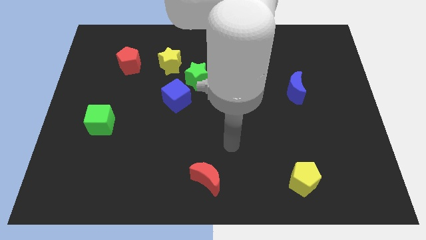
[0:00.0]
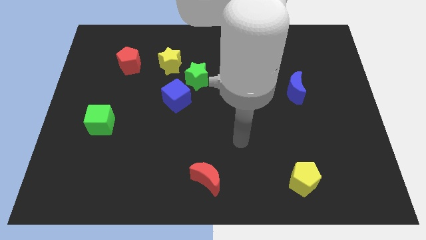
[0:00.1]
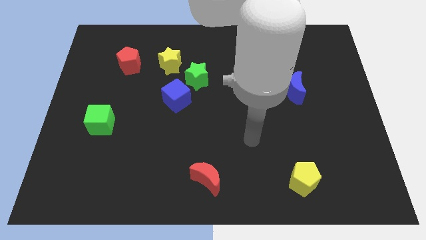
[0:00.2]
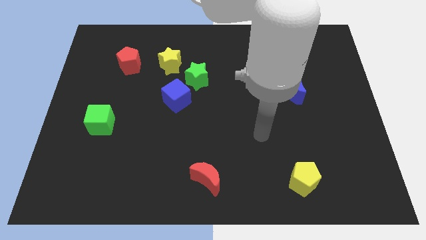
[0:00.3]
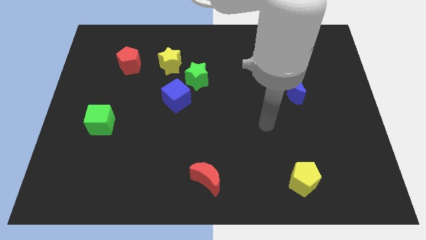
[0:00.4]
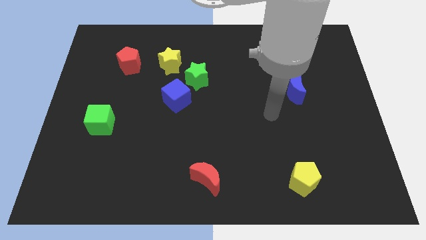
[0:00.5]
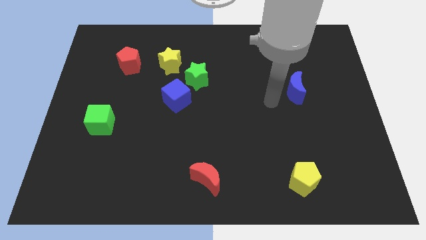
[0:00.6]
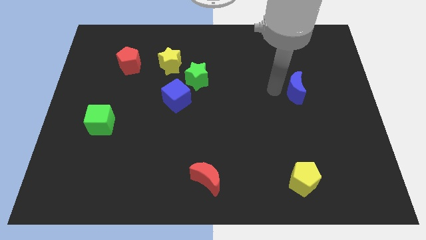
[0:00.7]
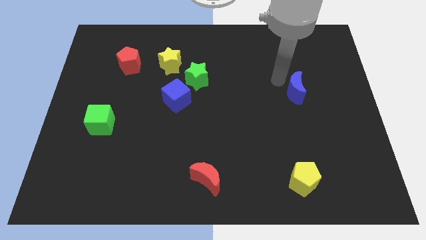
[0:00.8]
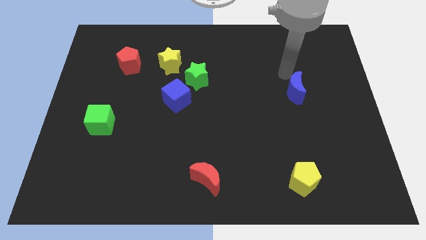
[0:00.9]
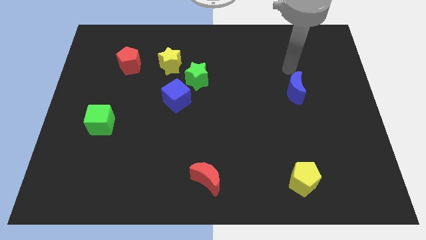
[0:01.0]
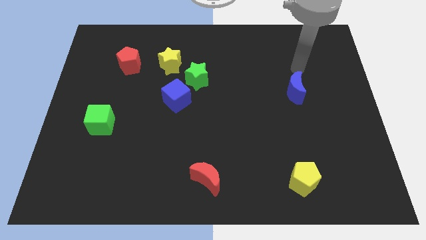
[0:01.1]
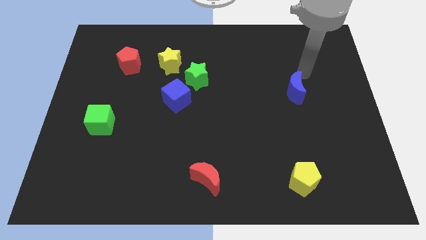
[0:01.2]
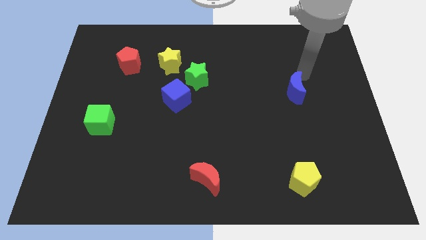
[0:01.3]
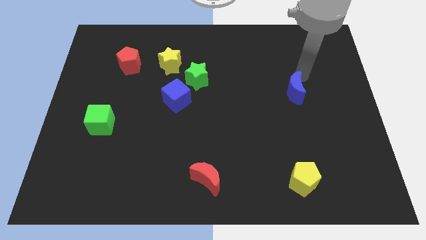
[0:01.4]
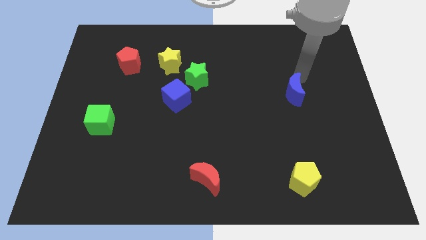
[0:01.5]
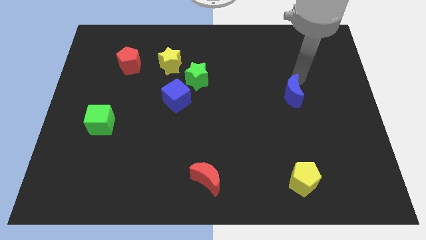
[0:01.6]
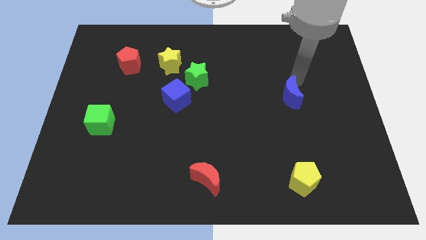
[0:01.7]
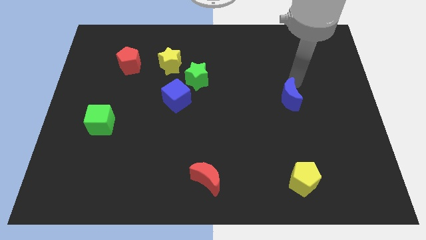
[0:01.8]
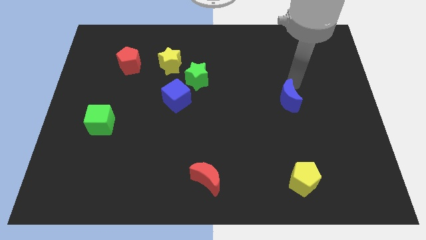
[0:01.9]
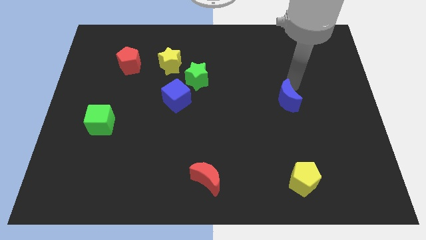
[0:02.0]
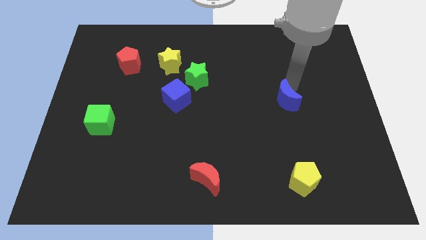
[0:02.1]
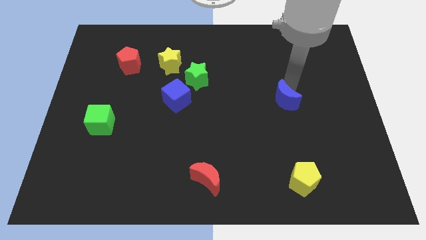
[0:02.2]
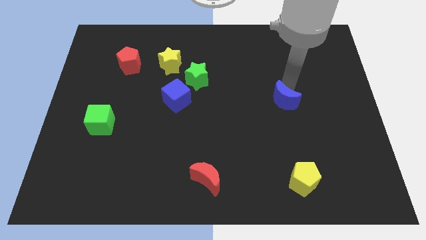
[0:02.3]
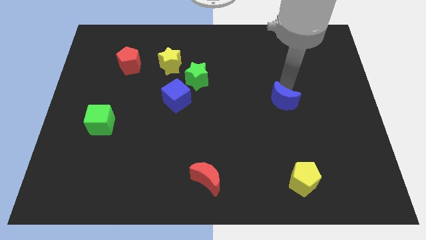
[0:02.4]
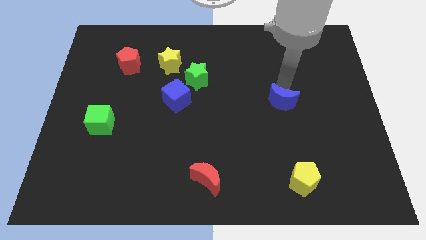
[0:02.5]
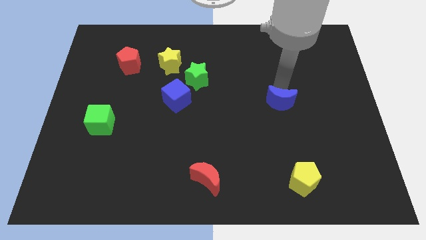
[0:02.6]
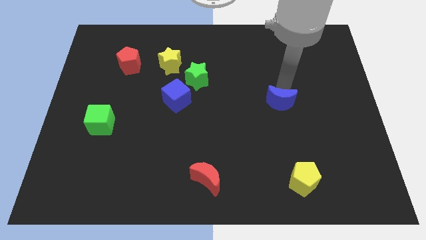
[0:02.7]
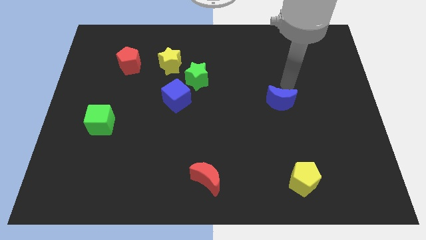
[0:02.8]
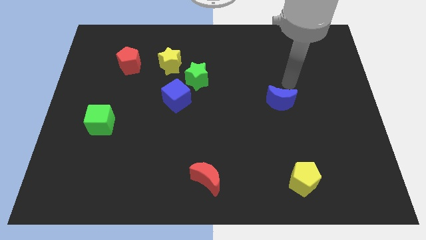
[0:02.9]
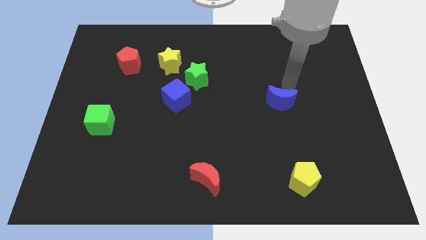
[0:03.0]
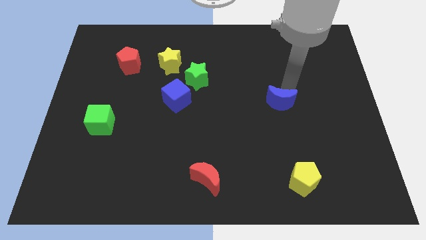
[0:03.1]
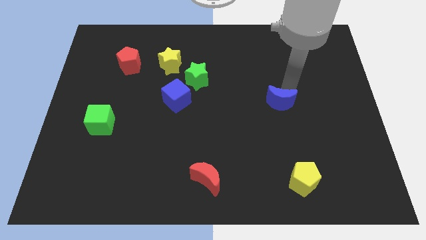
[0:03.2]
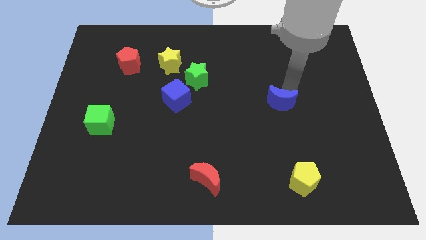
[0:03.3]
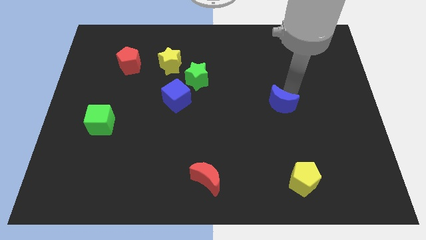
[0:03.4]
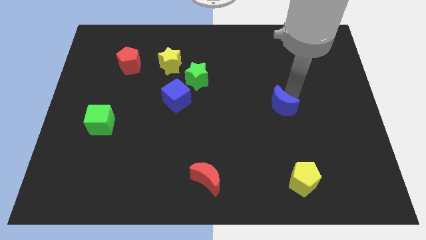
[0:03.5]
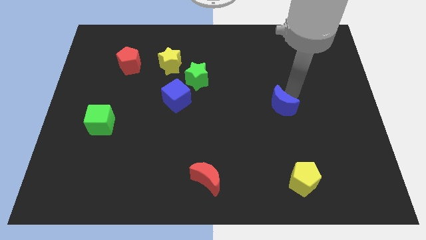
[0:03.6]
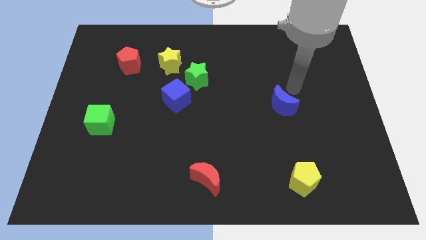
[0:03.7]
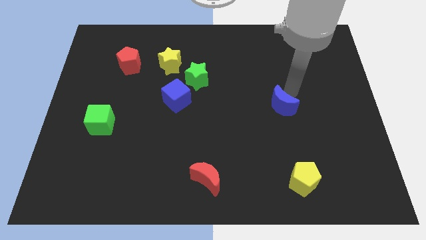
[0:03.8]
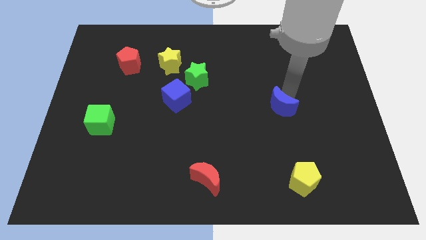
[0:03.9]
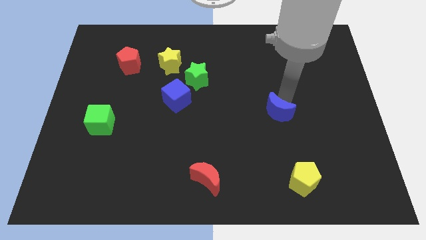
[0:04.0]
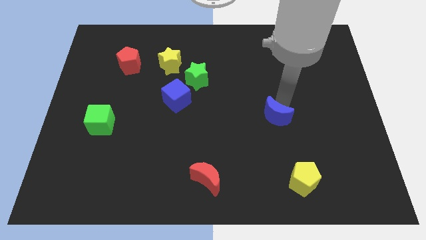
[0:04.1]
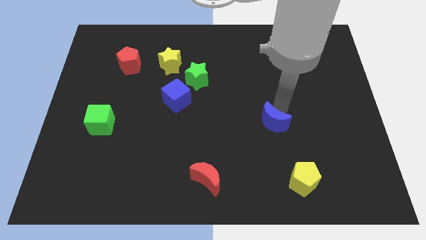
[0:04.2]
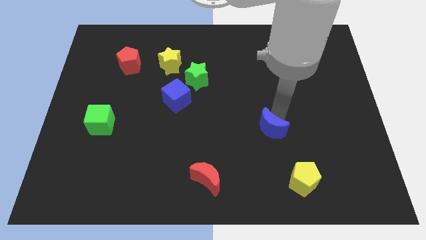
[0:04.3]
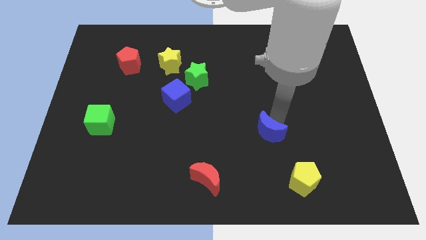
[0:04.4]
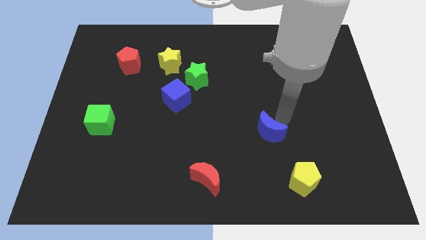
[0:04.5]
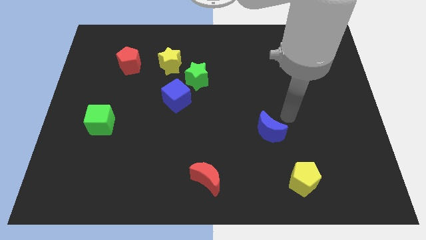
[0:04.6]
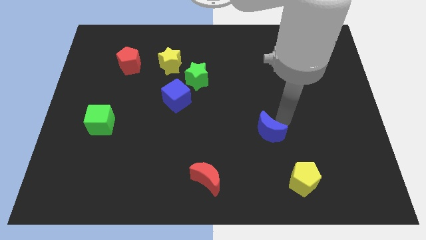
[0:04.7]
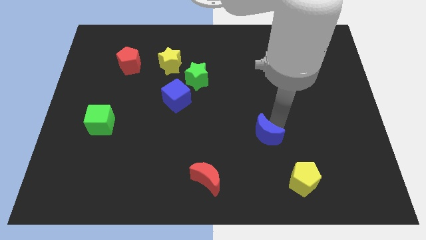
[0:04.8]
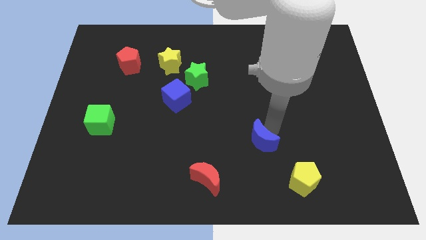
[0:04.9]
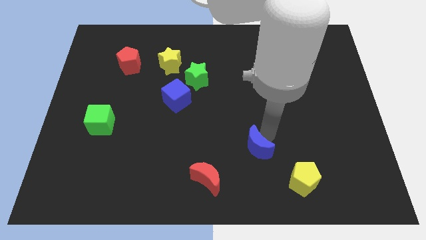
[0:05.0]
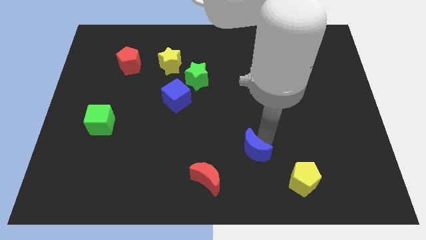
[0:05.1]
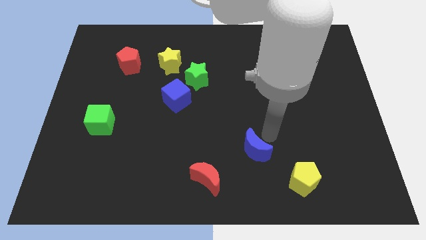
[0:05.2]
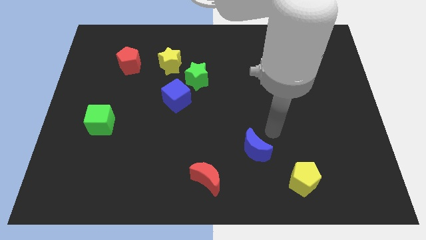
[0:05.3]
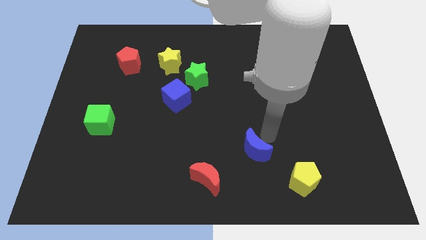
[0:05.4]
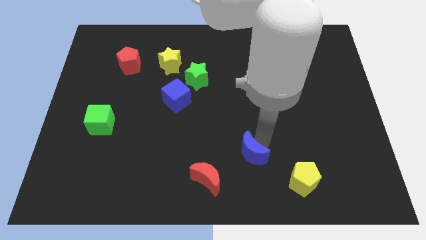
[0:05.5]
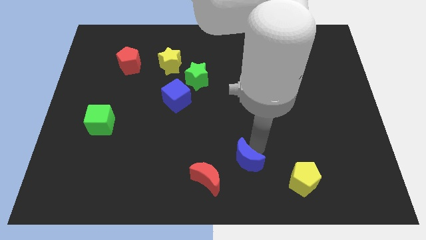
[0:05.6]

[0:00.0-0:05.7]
move the blue moon to the bottom side

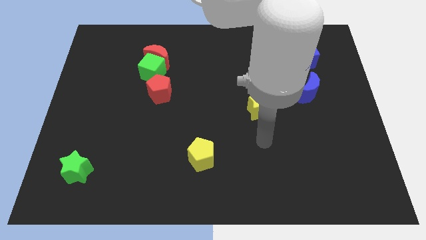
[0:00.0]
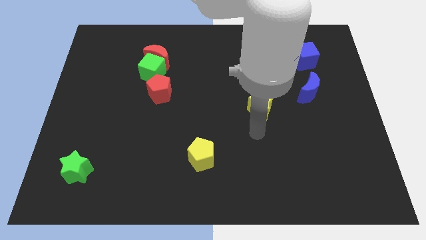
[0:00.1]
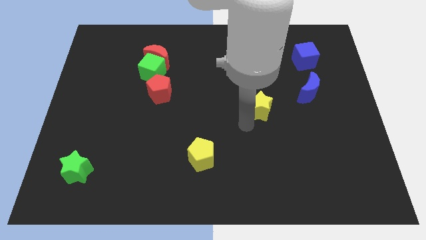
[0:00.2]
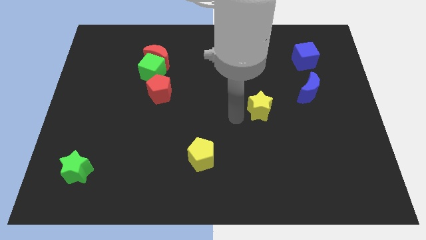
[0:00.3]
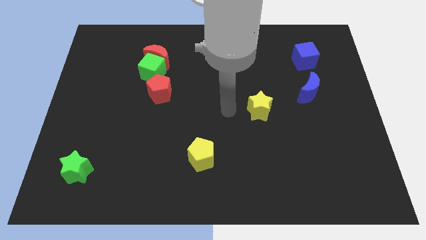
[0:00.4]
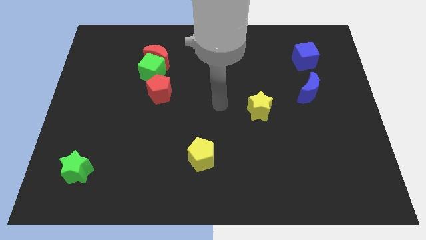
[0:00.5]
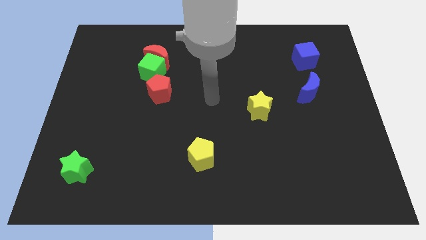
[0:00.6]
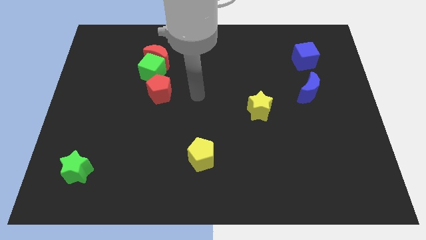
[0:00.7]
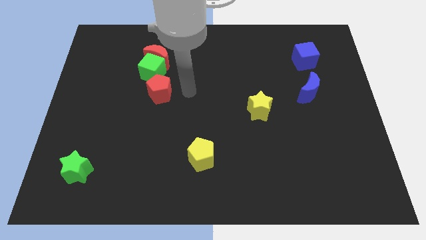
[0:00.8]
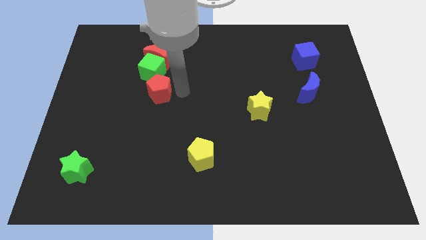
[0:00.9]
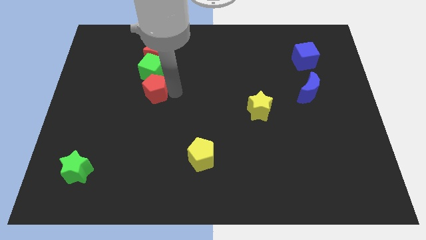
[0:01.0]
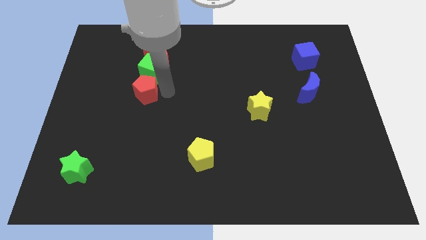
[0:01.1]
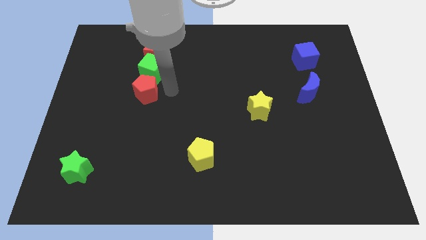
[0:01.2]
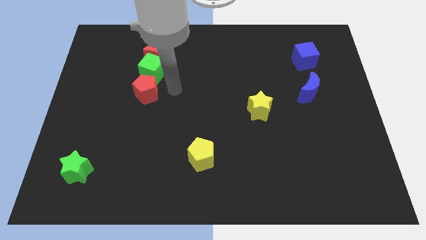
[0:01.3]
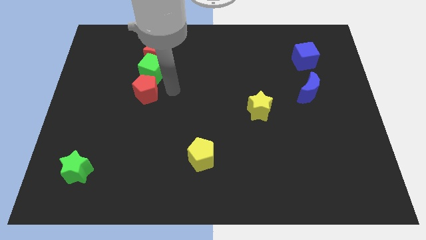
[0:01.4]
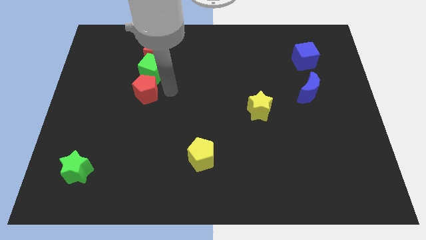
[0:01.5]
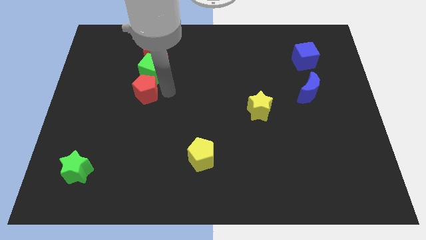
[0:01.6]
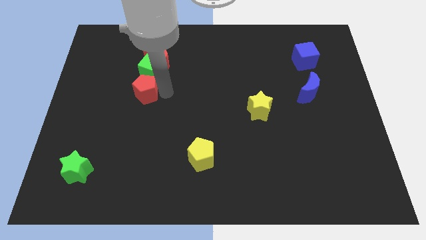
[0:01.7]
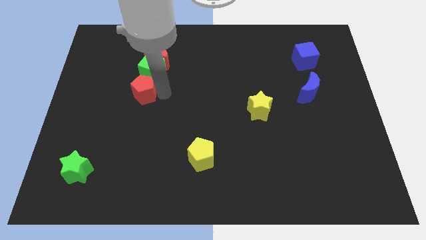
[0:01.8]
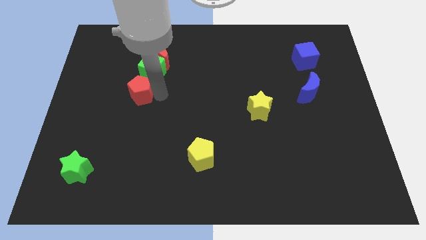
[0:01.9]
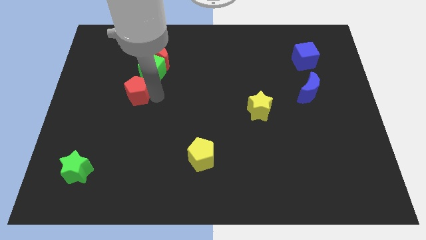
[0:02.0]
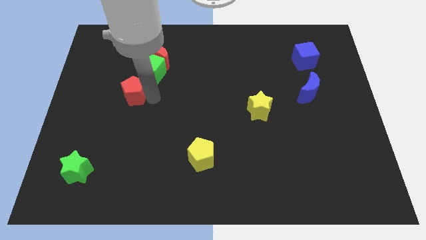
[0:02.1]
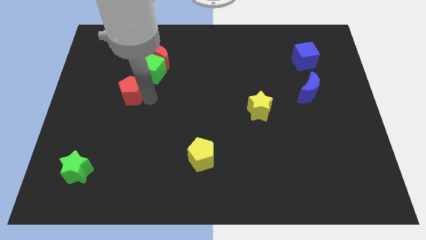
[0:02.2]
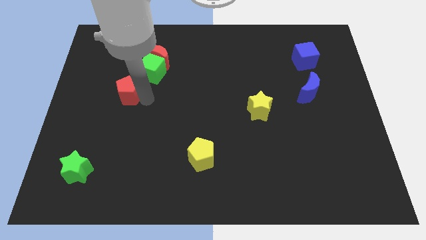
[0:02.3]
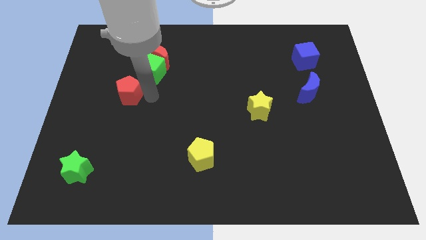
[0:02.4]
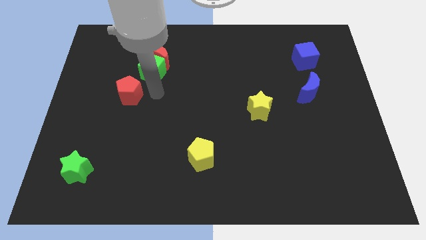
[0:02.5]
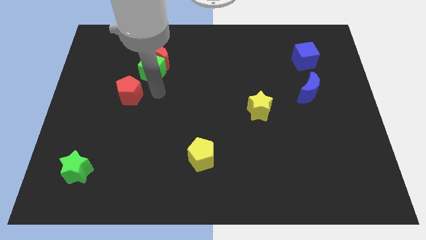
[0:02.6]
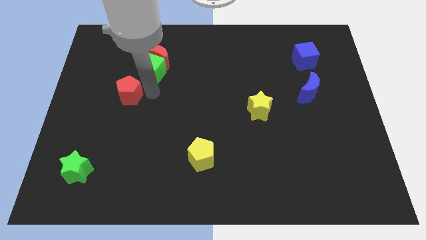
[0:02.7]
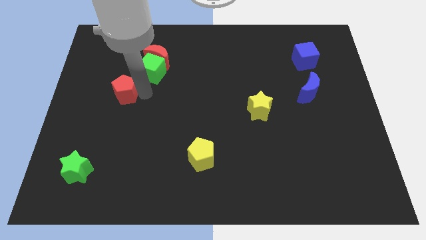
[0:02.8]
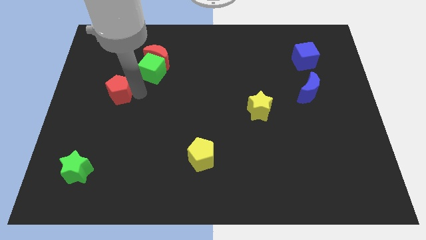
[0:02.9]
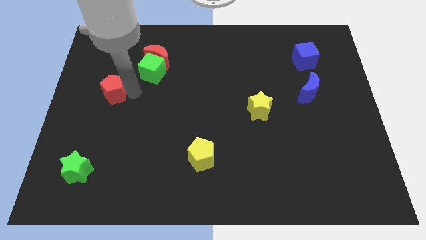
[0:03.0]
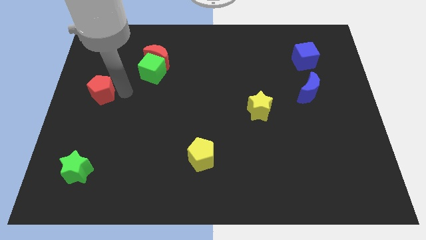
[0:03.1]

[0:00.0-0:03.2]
move the red pentagon to the center left
